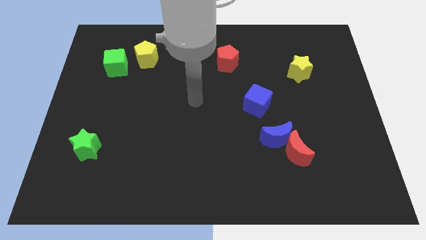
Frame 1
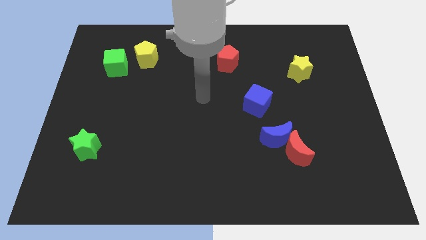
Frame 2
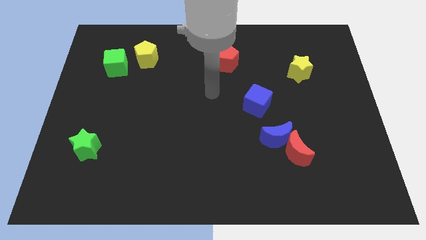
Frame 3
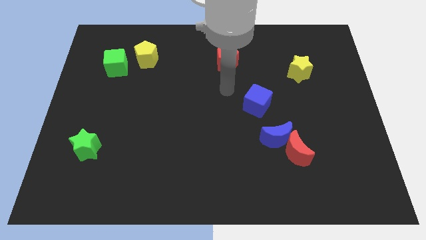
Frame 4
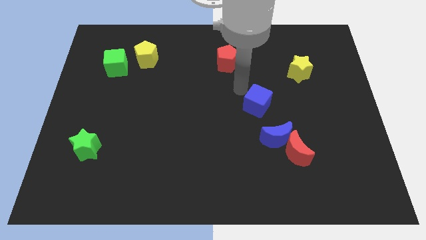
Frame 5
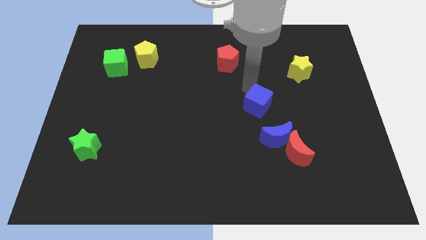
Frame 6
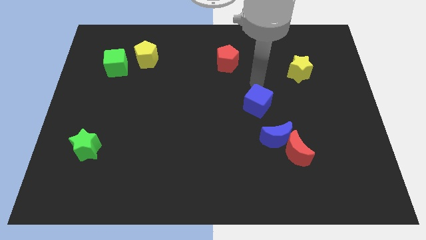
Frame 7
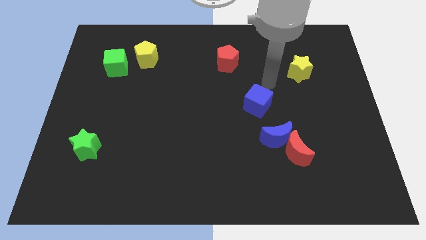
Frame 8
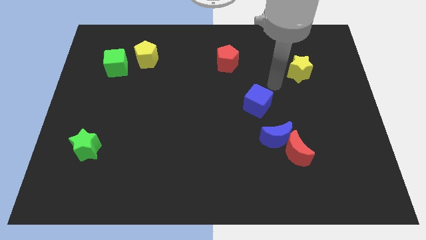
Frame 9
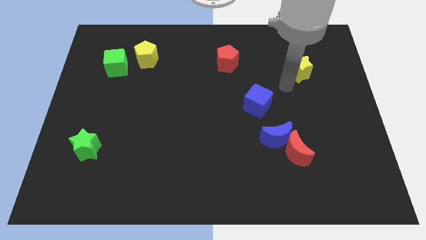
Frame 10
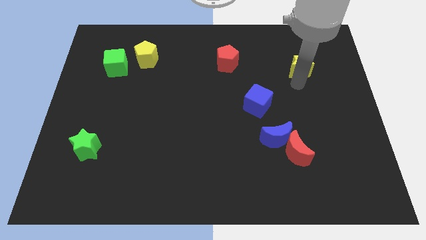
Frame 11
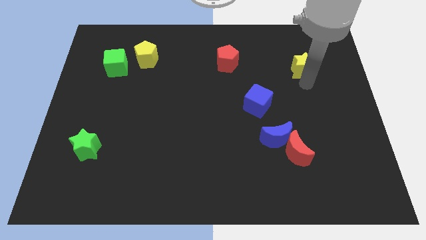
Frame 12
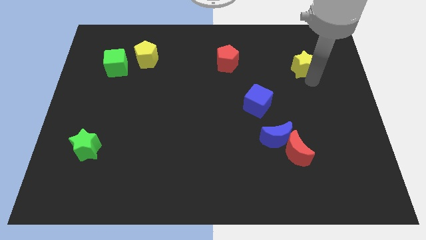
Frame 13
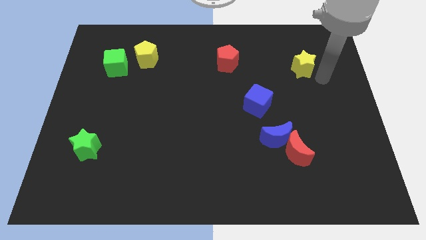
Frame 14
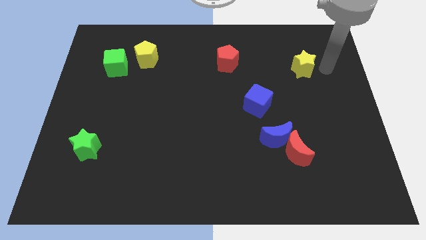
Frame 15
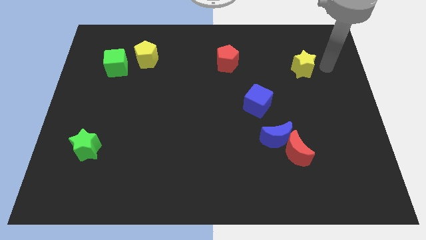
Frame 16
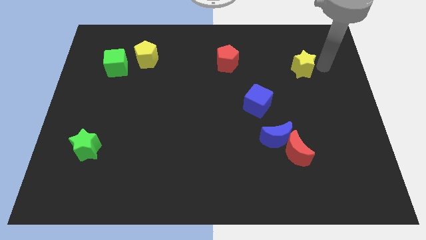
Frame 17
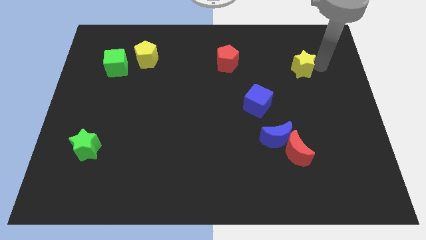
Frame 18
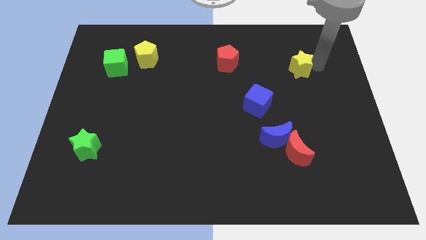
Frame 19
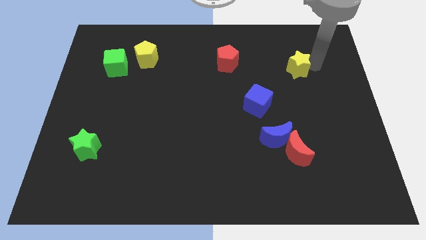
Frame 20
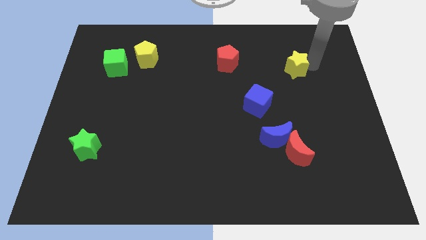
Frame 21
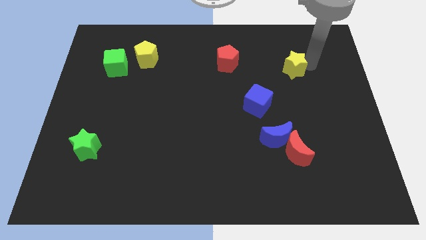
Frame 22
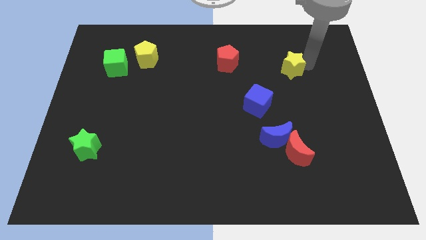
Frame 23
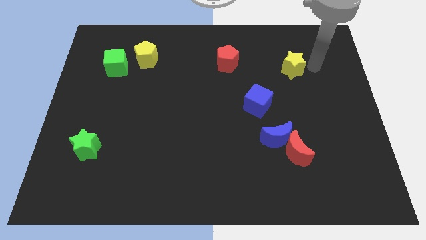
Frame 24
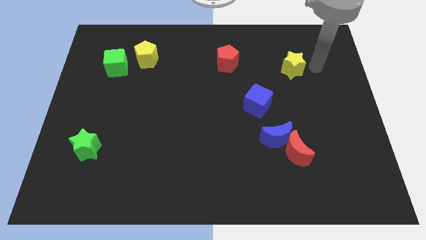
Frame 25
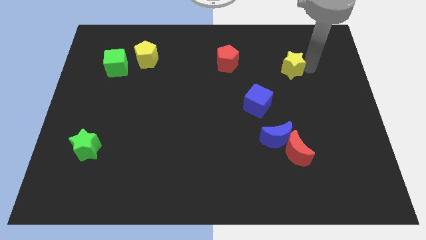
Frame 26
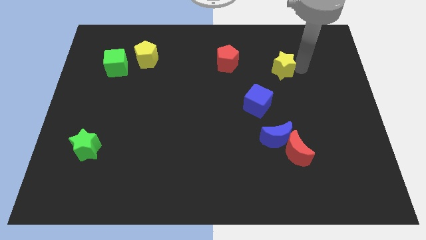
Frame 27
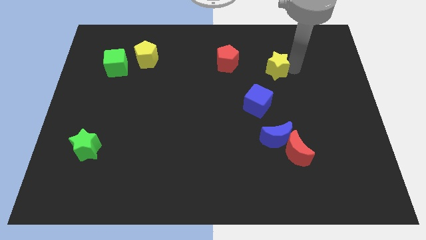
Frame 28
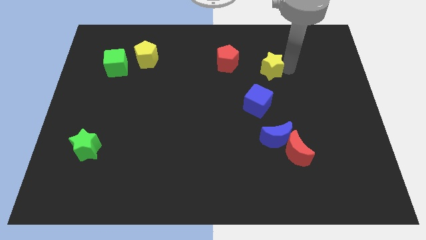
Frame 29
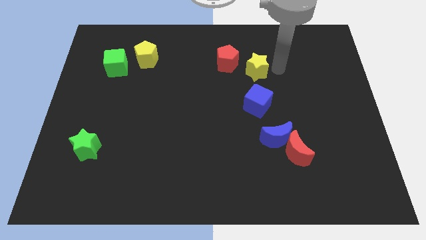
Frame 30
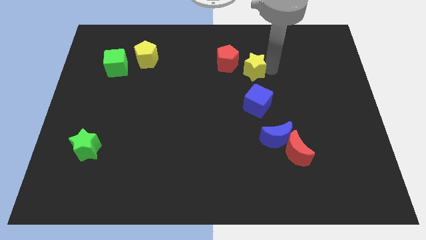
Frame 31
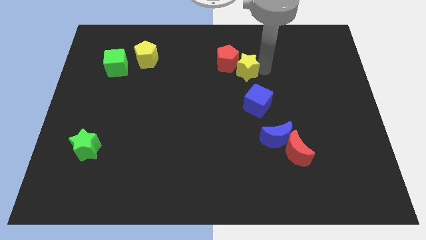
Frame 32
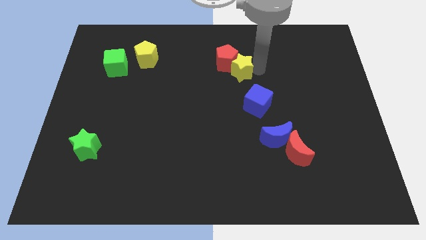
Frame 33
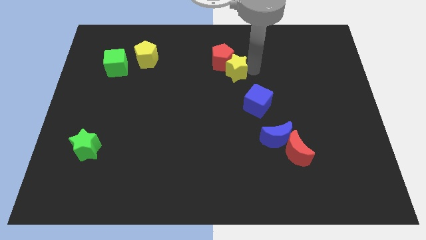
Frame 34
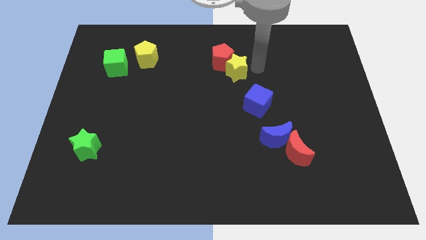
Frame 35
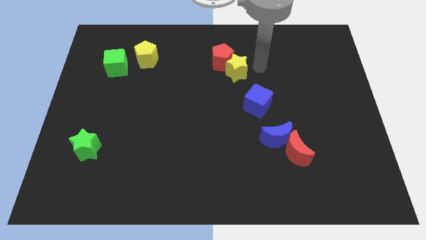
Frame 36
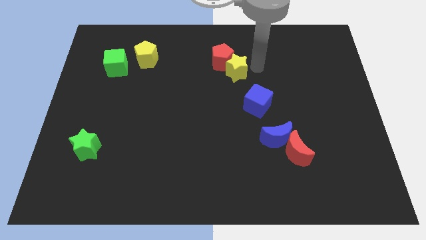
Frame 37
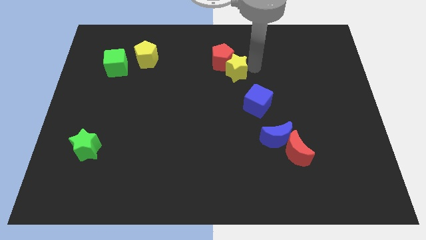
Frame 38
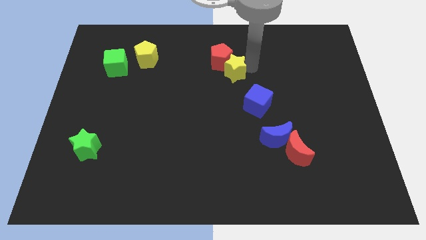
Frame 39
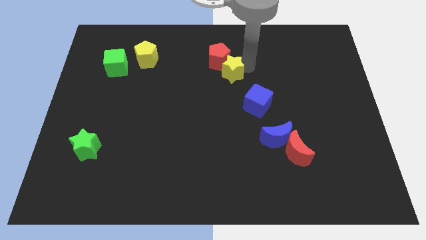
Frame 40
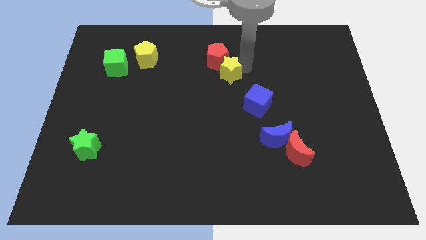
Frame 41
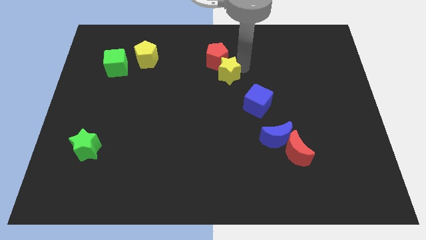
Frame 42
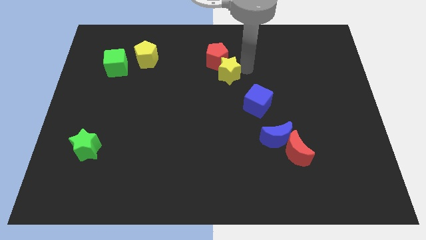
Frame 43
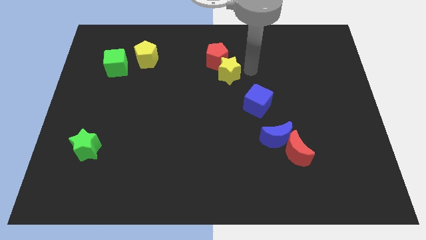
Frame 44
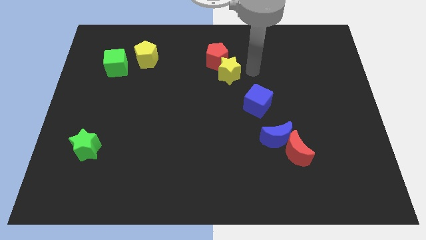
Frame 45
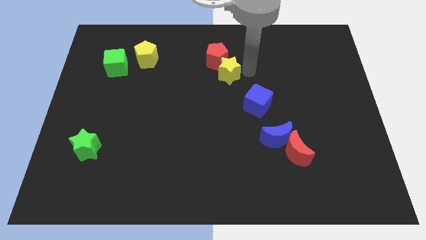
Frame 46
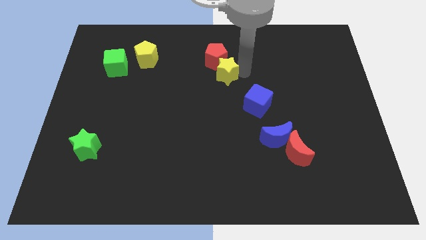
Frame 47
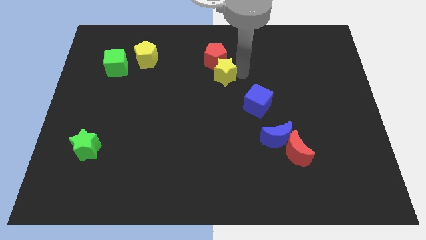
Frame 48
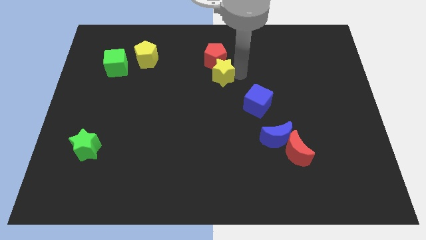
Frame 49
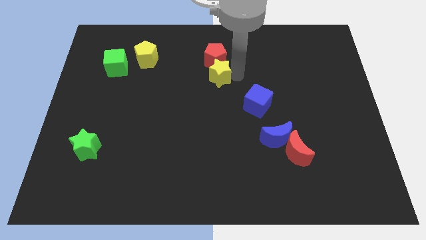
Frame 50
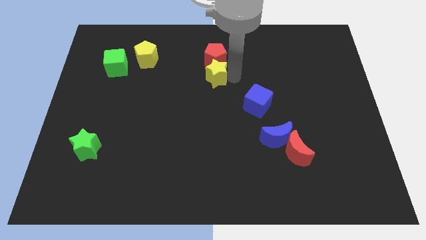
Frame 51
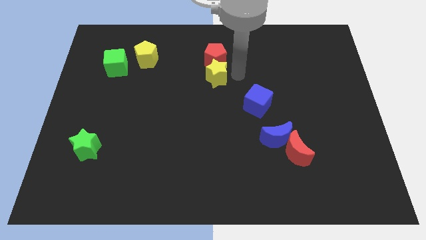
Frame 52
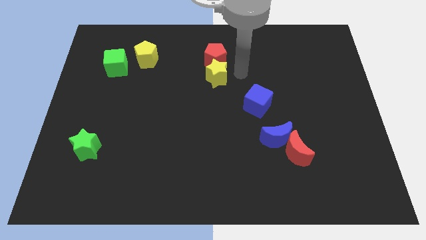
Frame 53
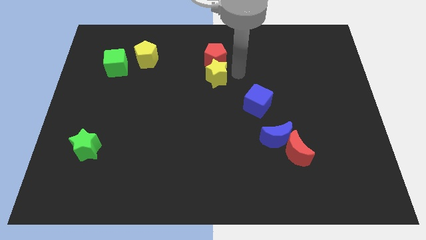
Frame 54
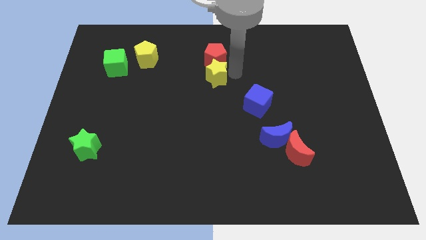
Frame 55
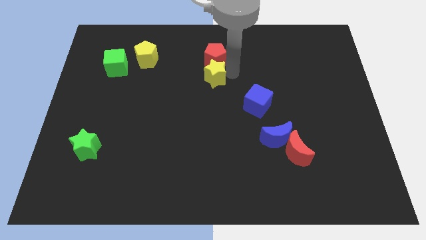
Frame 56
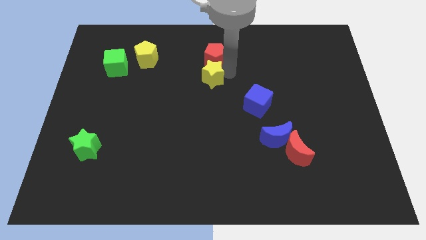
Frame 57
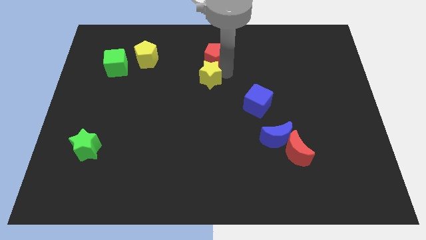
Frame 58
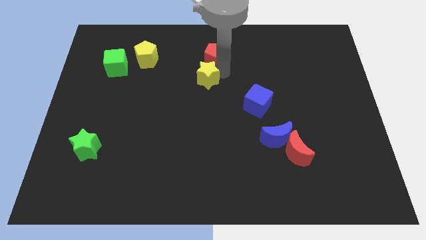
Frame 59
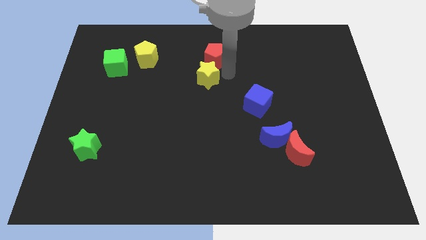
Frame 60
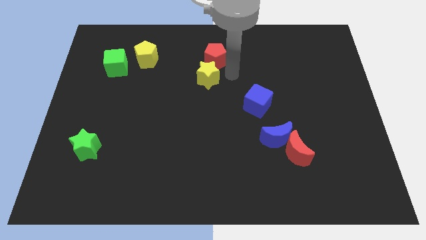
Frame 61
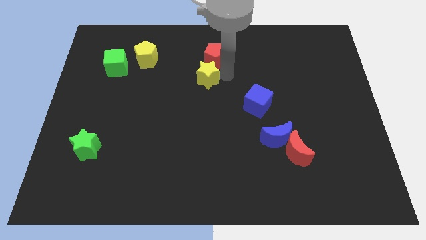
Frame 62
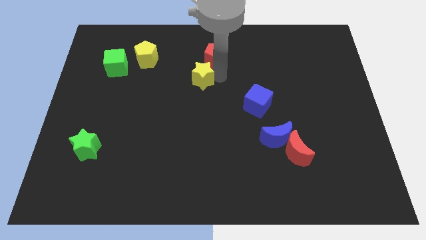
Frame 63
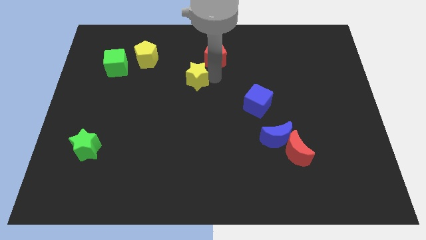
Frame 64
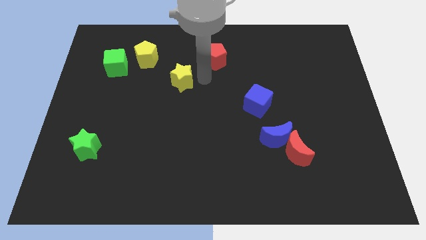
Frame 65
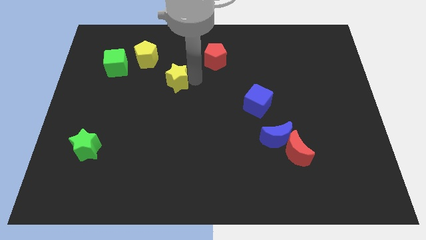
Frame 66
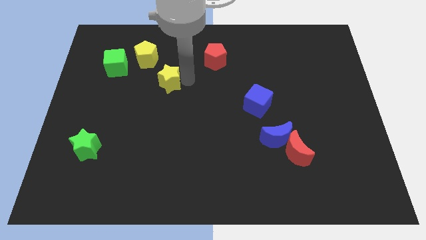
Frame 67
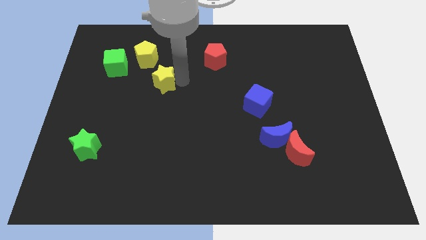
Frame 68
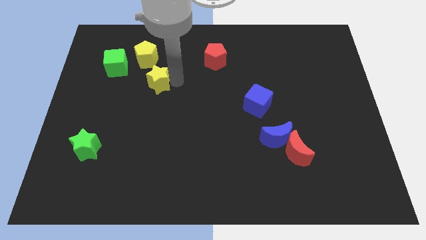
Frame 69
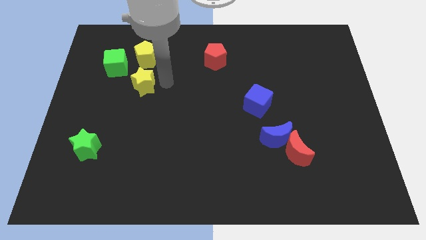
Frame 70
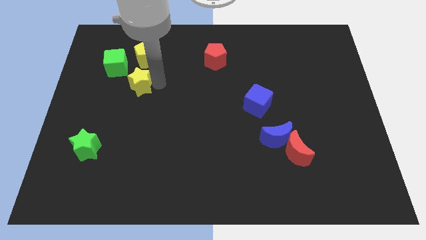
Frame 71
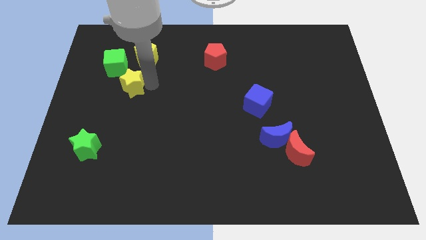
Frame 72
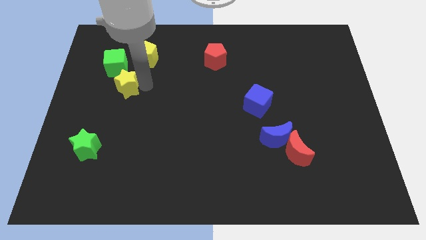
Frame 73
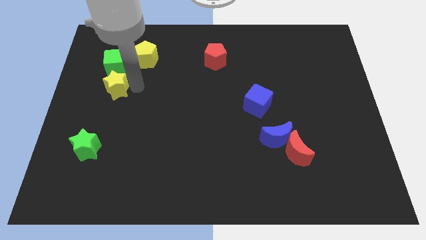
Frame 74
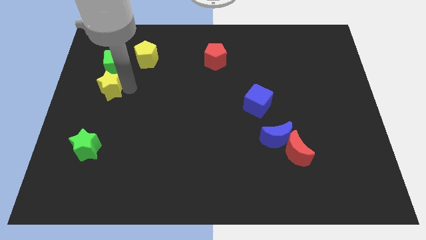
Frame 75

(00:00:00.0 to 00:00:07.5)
slide the yellow star to the center left
